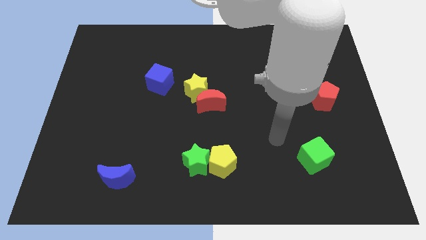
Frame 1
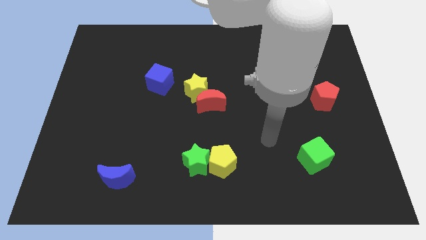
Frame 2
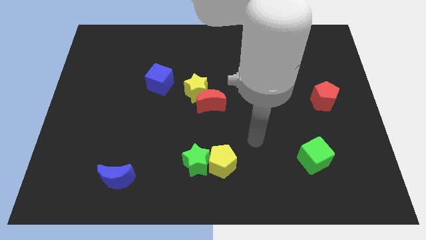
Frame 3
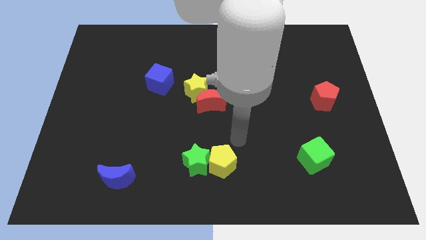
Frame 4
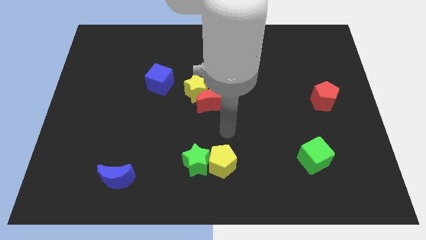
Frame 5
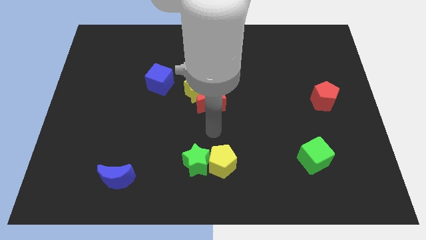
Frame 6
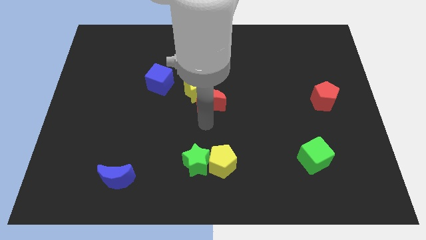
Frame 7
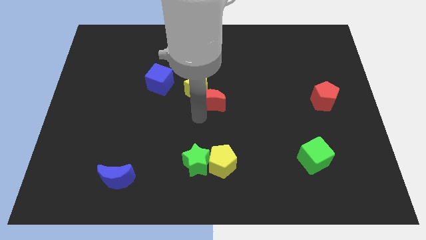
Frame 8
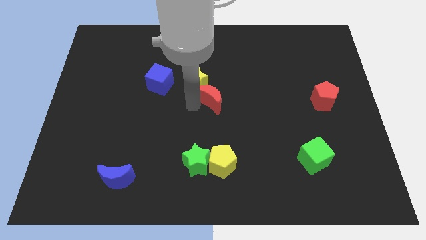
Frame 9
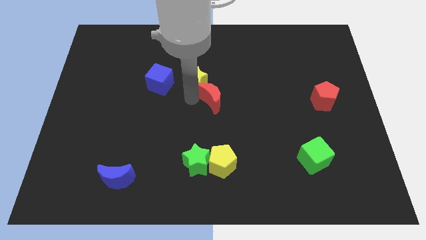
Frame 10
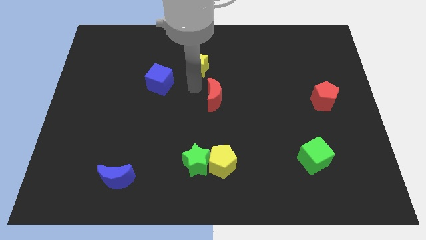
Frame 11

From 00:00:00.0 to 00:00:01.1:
separate the red moon from the yellow star

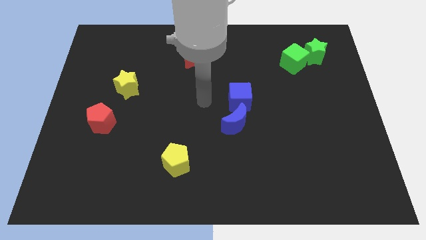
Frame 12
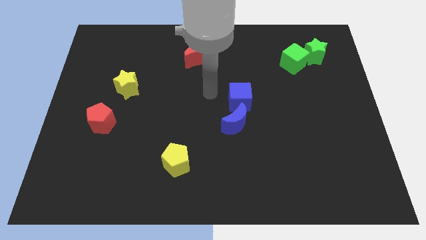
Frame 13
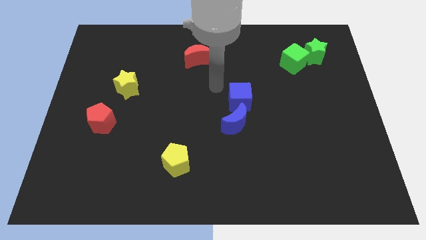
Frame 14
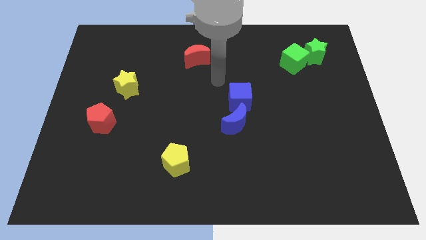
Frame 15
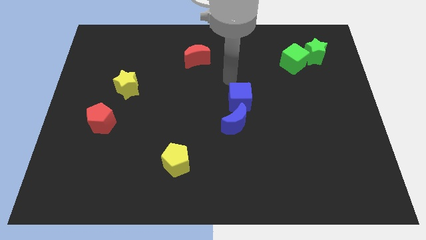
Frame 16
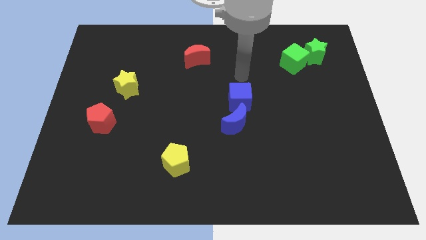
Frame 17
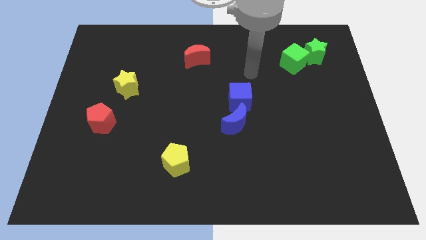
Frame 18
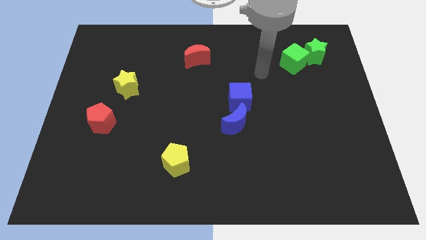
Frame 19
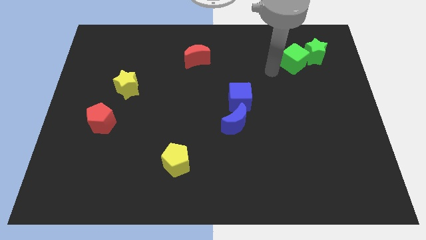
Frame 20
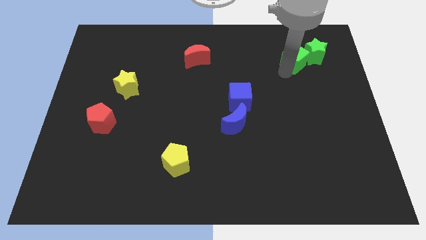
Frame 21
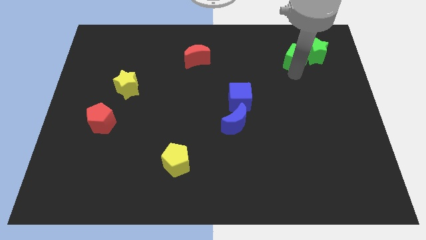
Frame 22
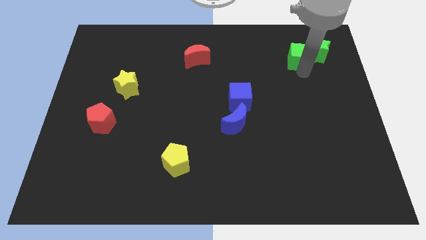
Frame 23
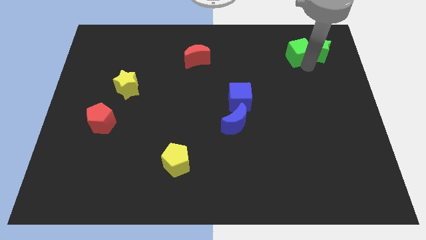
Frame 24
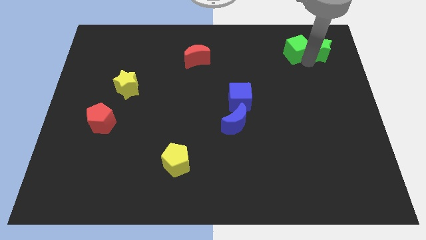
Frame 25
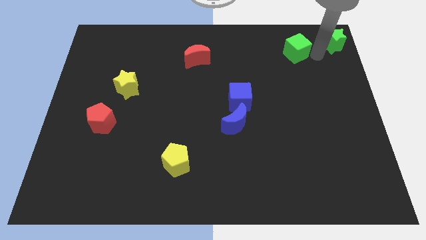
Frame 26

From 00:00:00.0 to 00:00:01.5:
move the green cube away from the green star

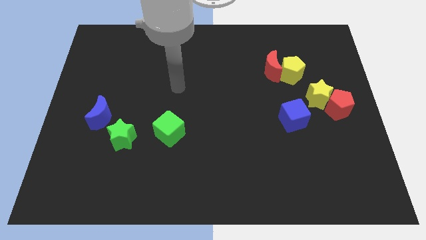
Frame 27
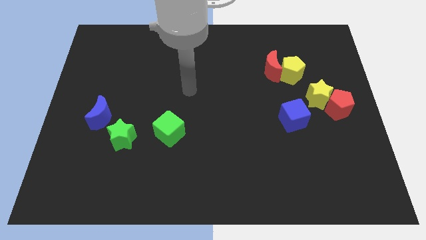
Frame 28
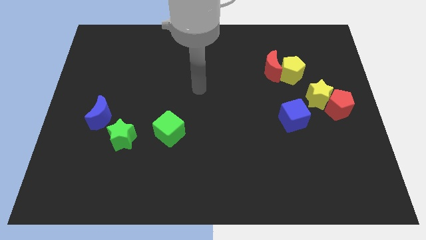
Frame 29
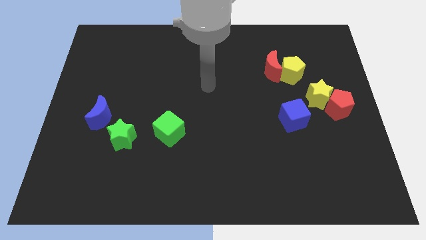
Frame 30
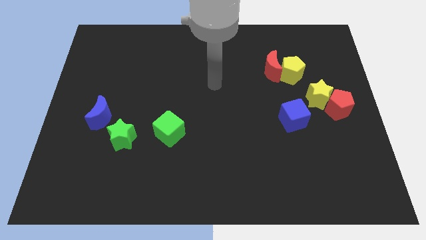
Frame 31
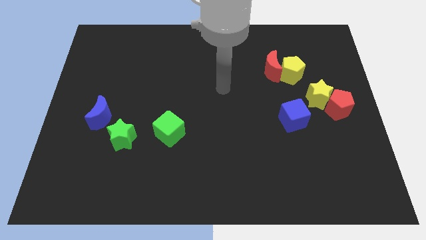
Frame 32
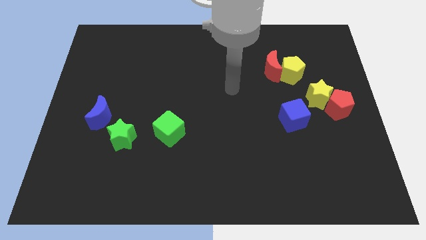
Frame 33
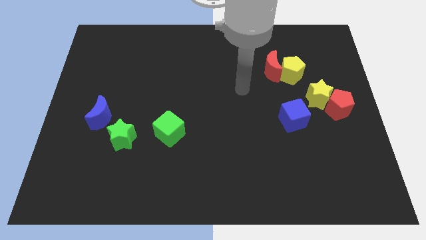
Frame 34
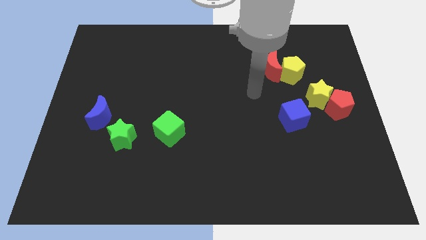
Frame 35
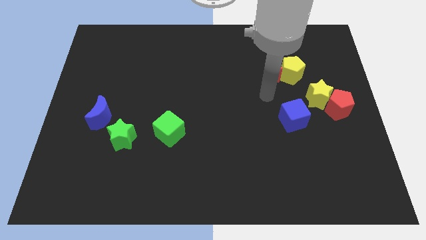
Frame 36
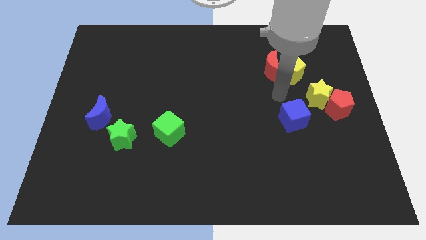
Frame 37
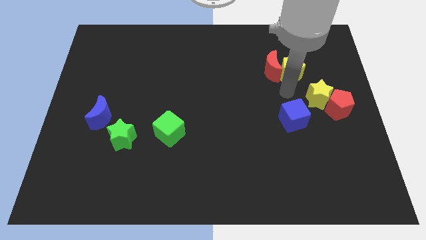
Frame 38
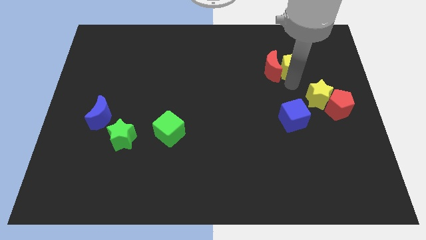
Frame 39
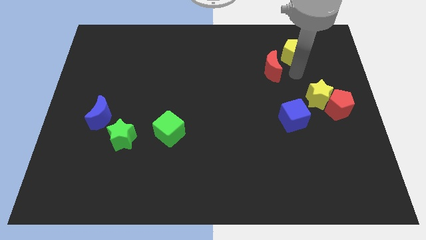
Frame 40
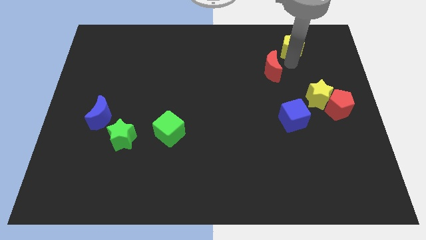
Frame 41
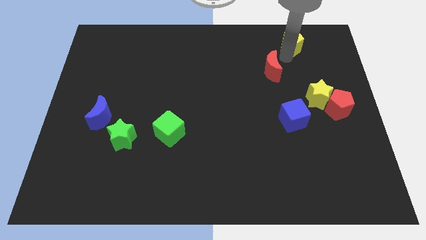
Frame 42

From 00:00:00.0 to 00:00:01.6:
pull the red moon apart from the yellow pentagon

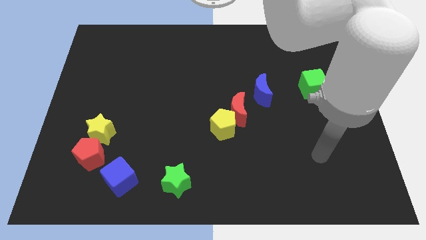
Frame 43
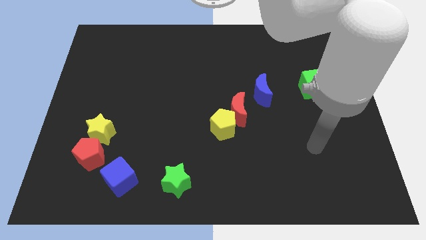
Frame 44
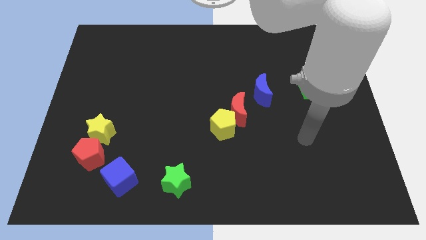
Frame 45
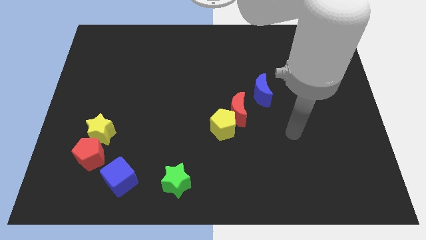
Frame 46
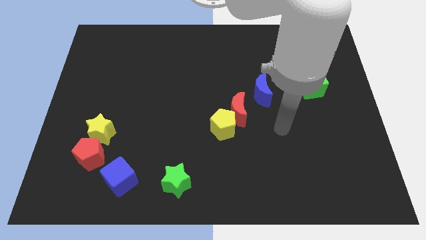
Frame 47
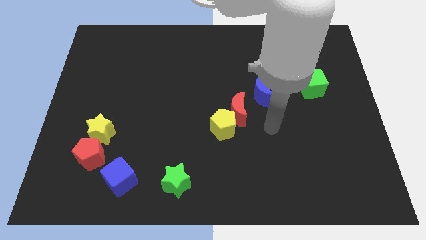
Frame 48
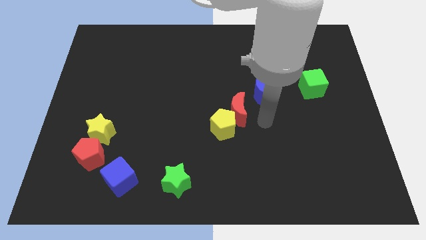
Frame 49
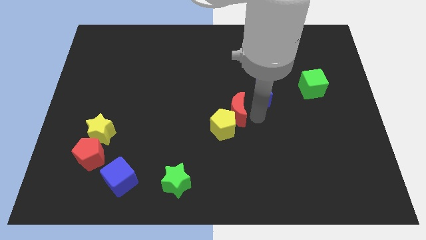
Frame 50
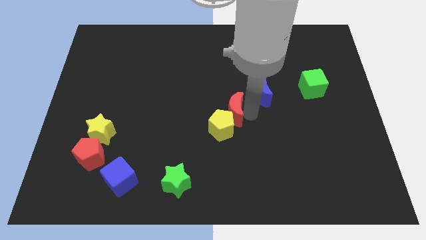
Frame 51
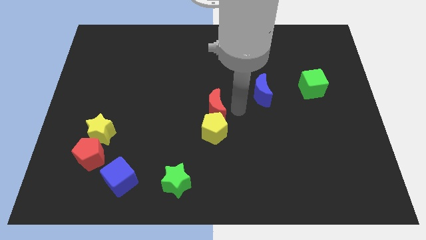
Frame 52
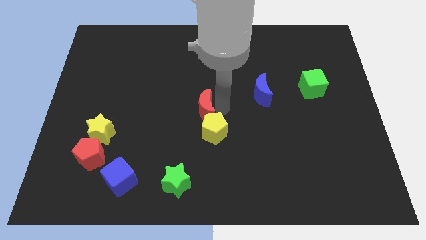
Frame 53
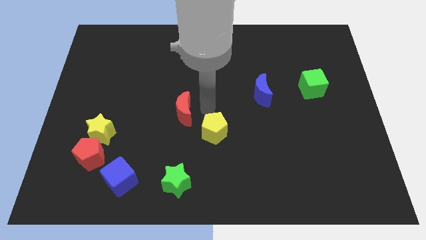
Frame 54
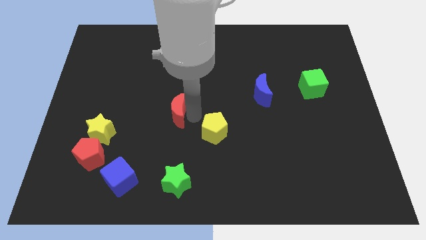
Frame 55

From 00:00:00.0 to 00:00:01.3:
separate the yellow pentagon from the red moon

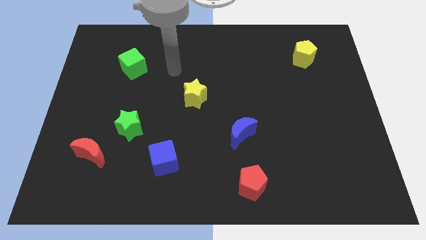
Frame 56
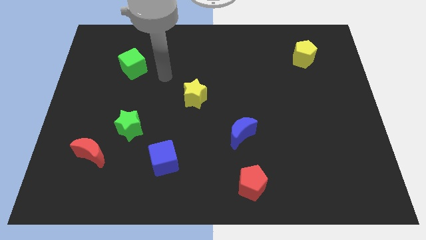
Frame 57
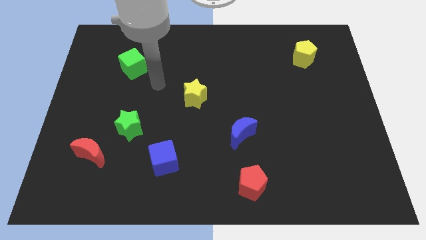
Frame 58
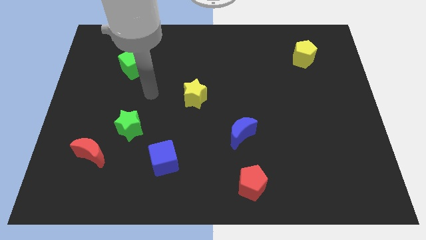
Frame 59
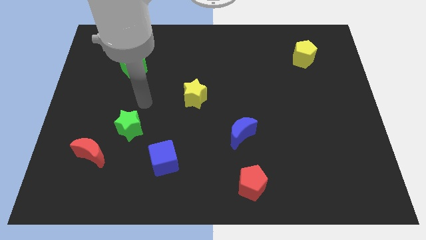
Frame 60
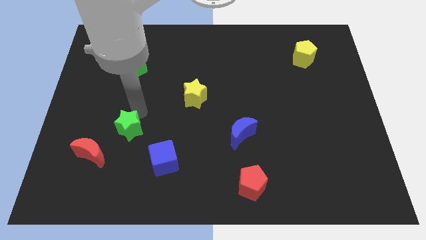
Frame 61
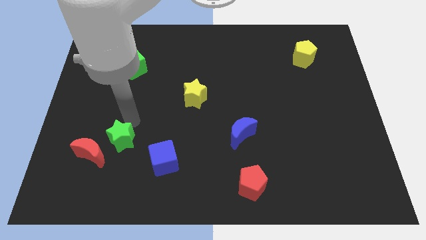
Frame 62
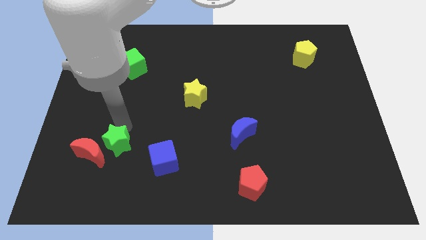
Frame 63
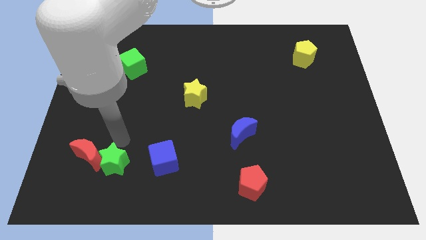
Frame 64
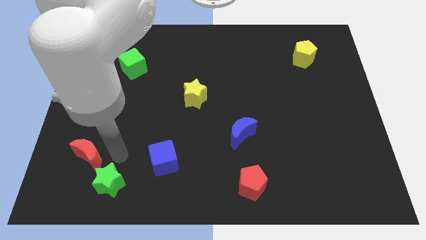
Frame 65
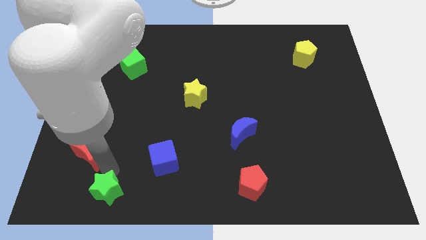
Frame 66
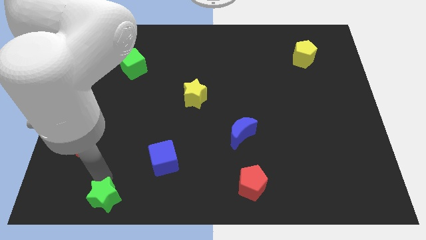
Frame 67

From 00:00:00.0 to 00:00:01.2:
separate the red moon from the green star

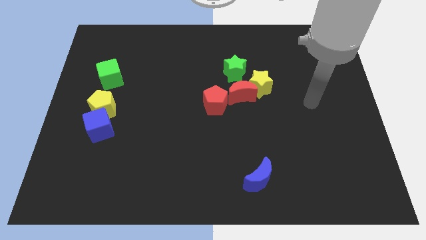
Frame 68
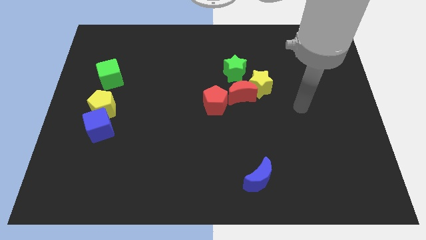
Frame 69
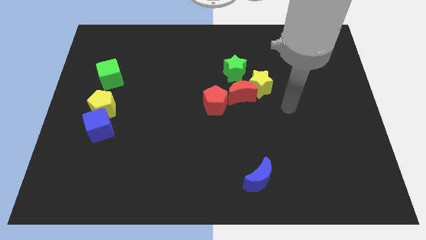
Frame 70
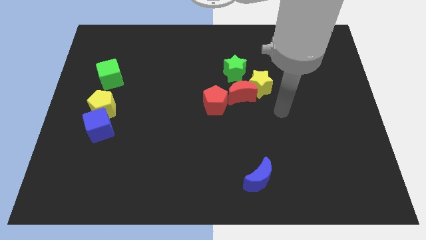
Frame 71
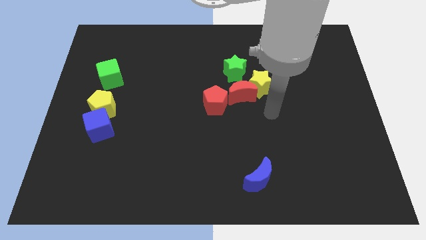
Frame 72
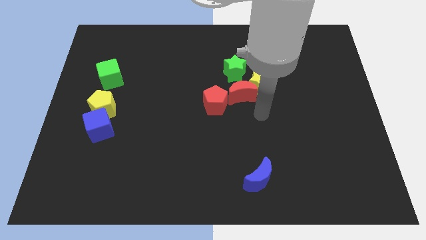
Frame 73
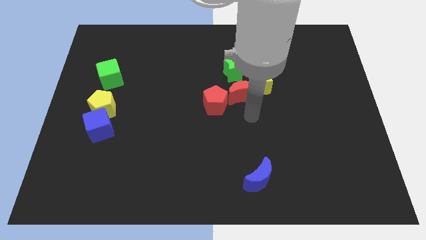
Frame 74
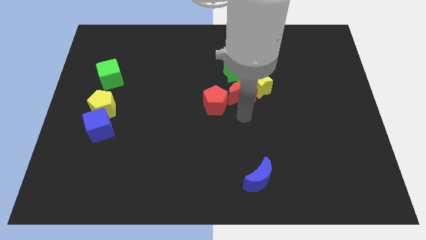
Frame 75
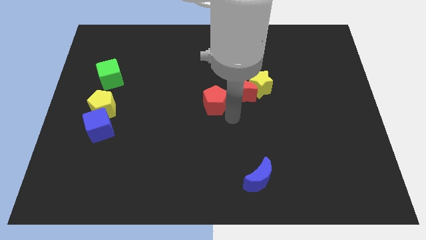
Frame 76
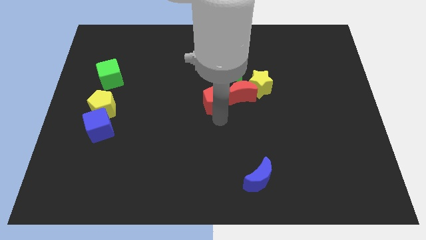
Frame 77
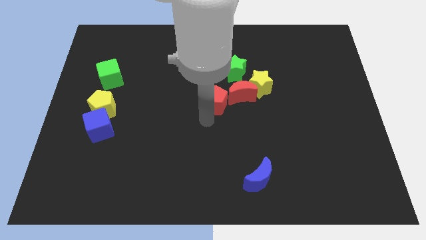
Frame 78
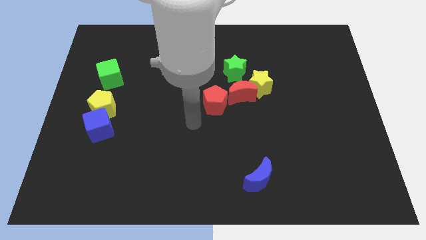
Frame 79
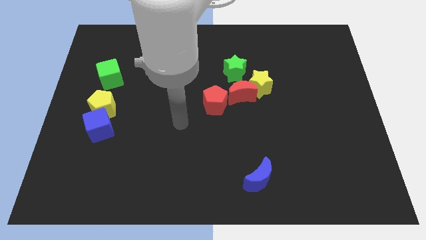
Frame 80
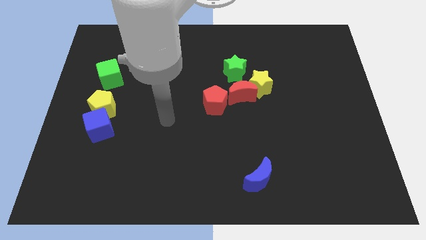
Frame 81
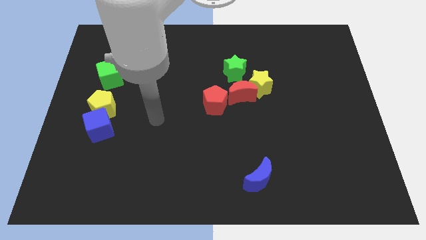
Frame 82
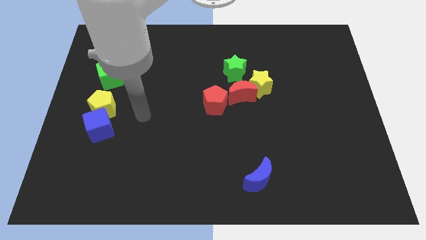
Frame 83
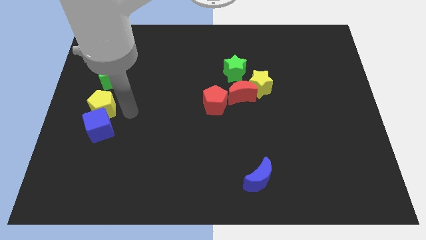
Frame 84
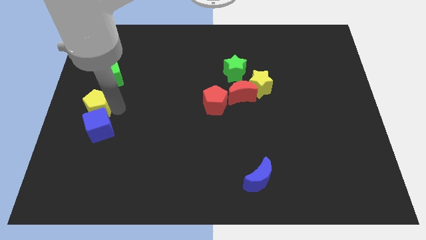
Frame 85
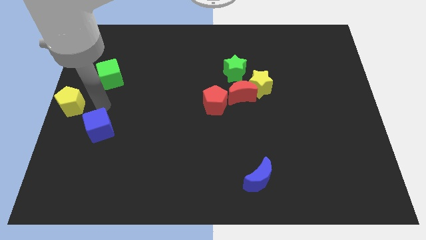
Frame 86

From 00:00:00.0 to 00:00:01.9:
move the blue cube away from the yellow pentagon

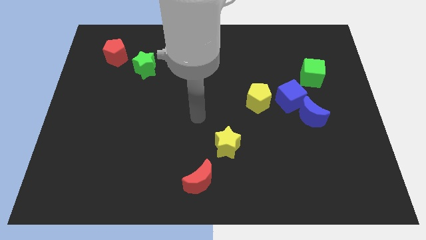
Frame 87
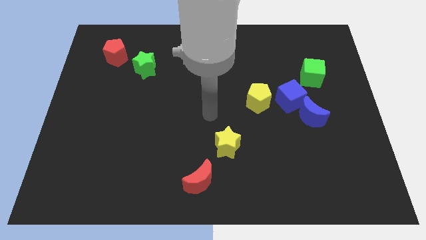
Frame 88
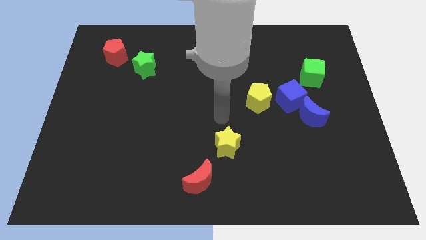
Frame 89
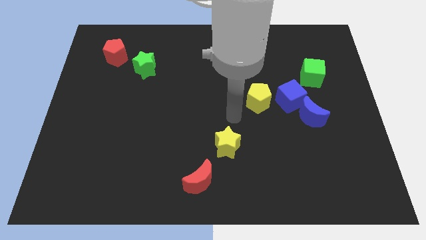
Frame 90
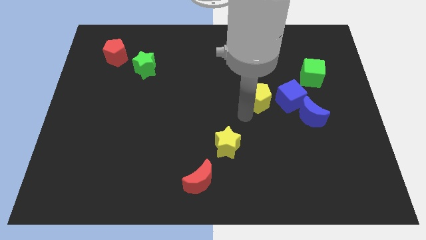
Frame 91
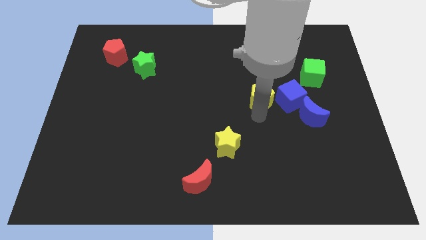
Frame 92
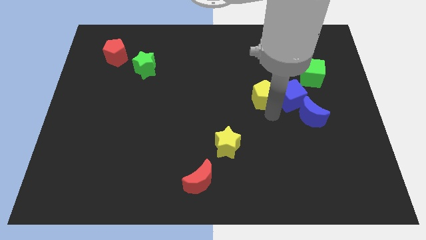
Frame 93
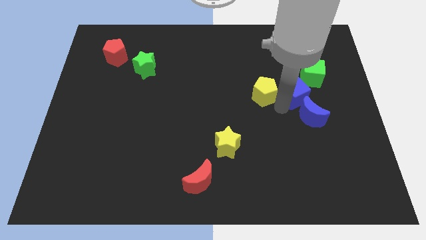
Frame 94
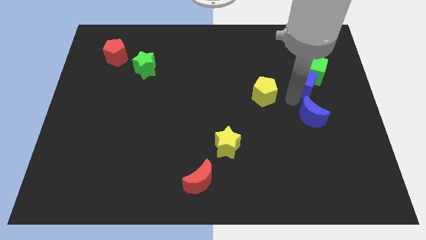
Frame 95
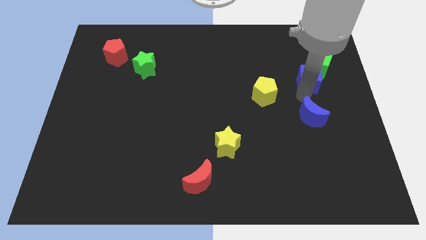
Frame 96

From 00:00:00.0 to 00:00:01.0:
move the blue moon away from the blue cube
